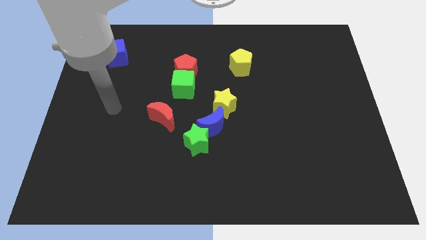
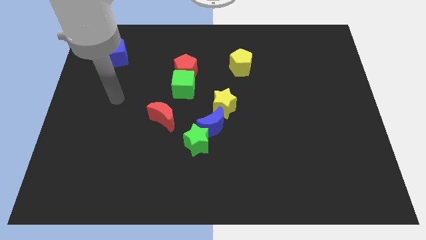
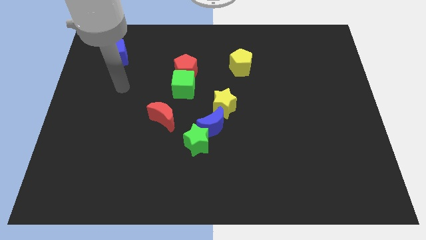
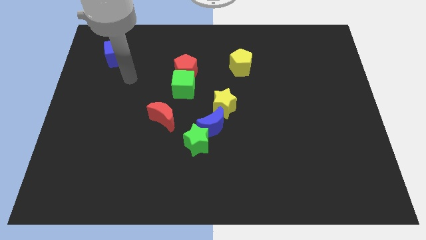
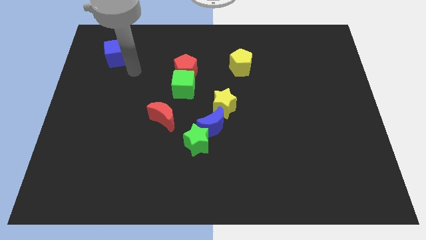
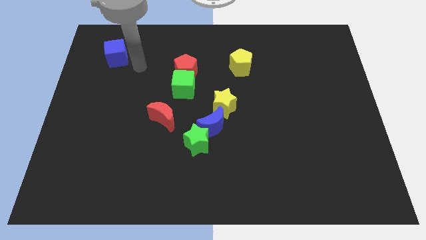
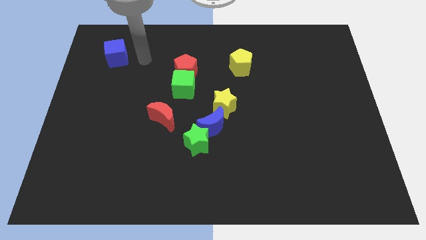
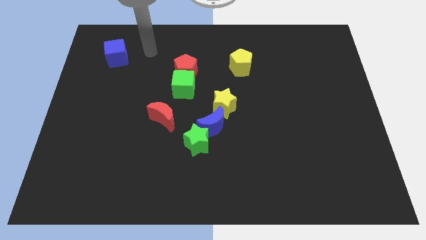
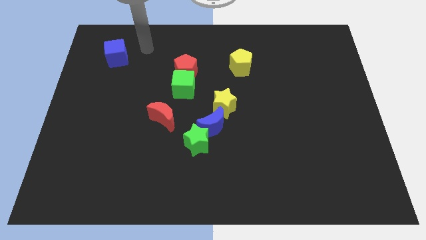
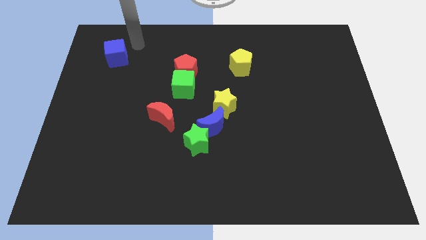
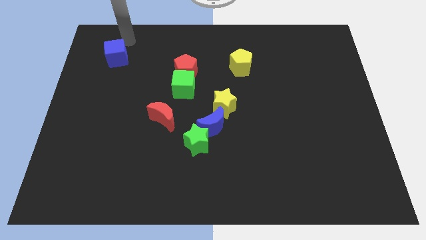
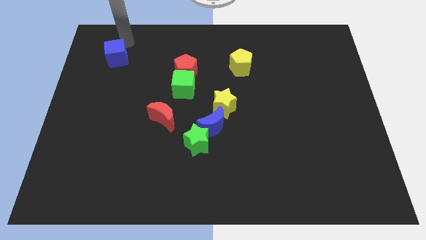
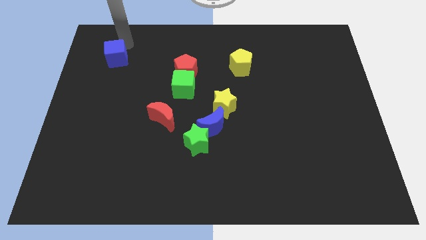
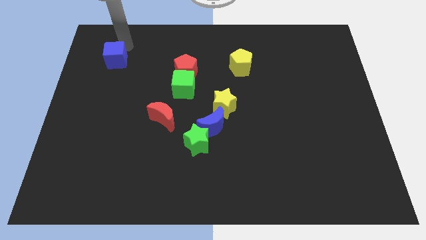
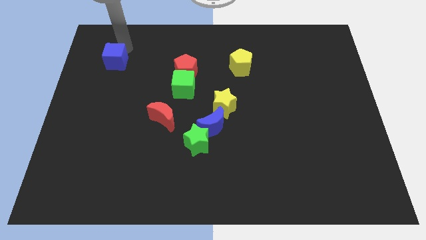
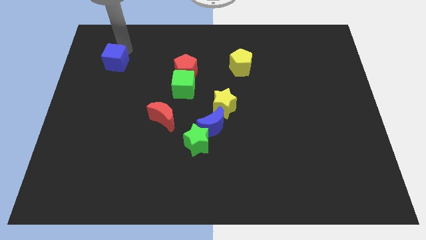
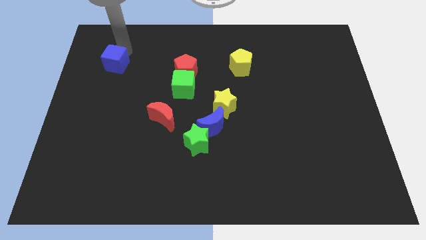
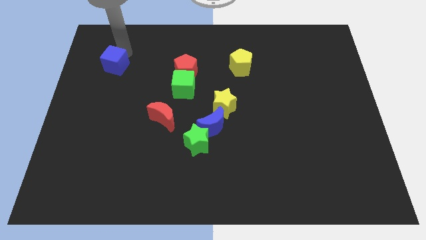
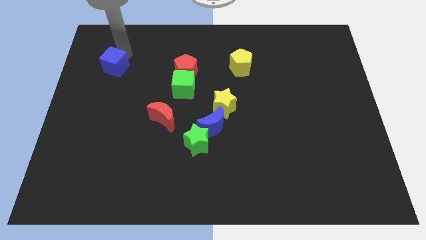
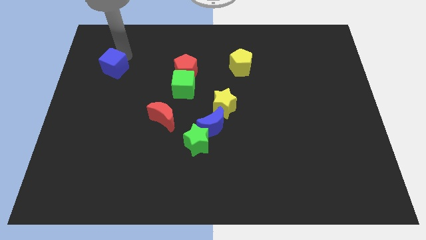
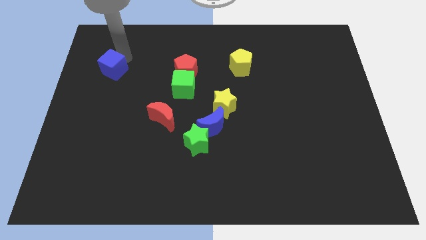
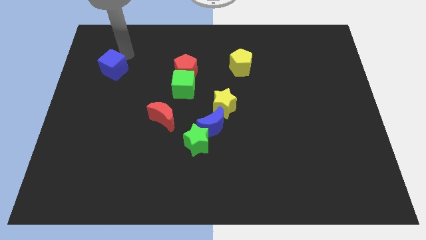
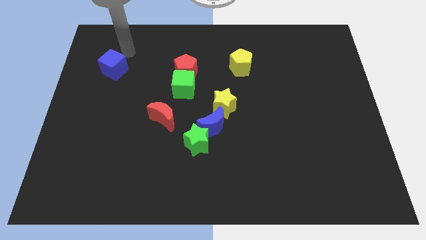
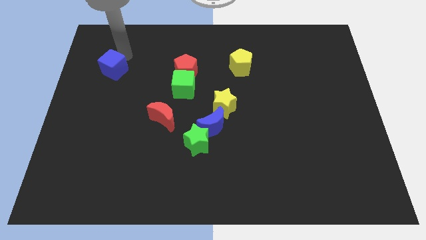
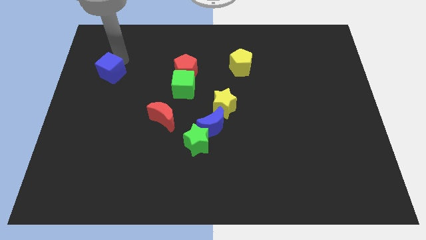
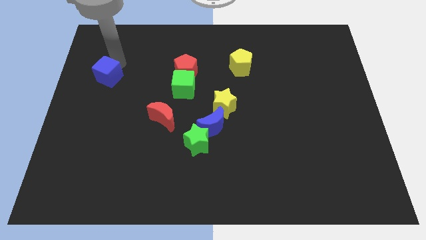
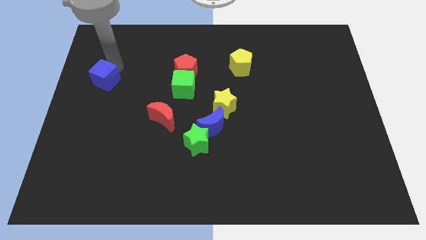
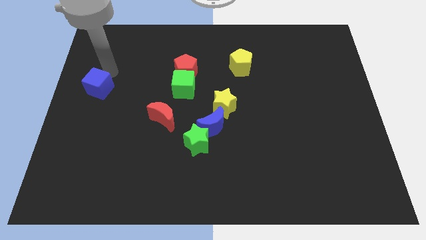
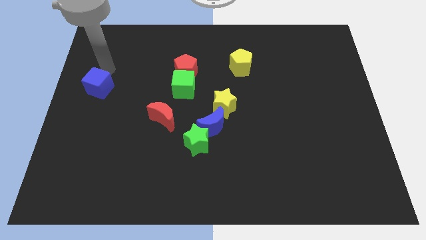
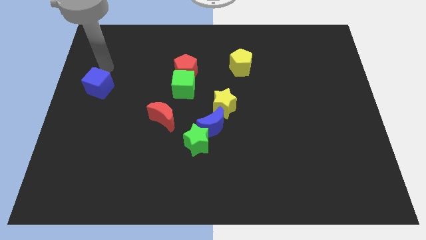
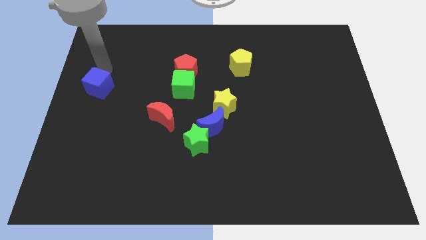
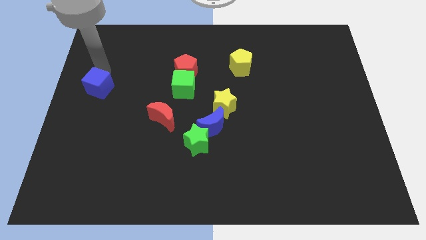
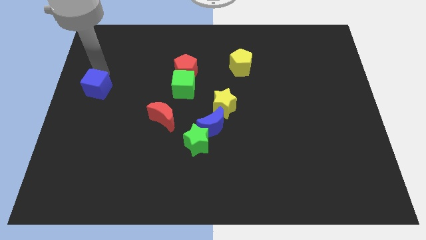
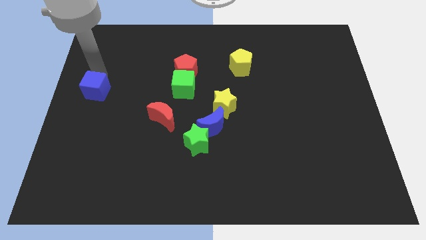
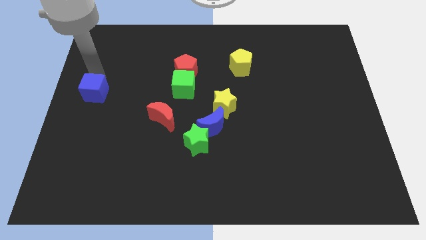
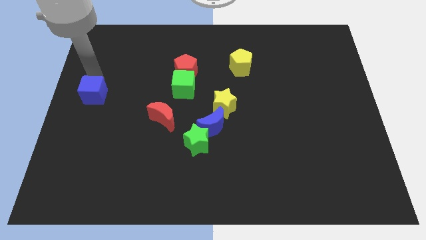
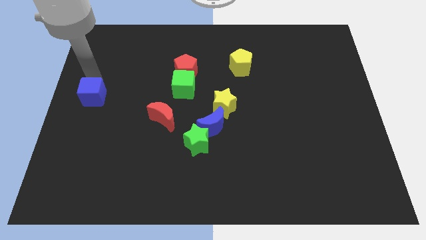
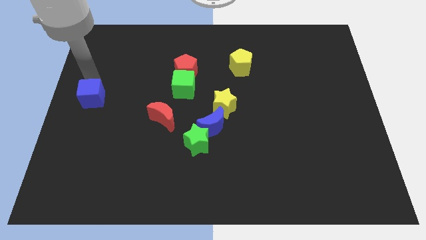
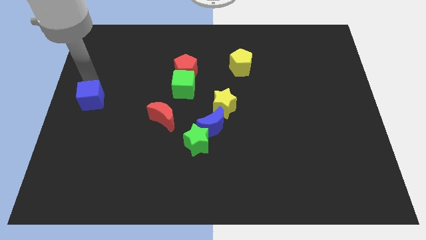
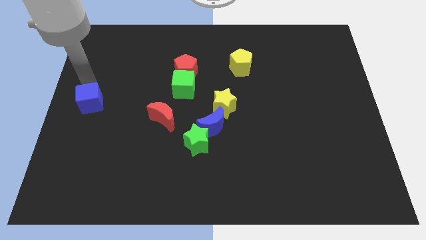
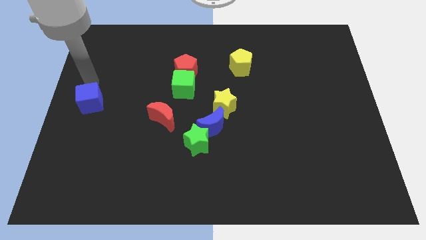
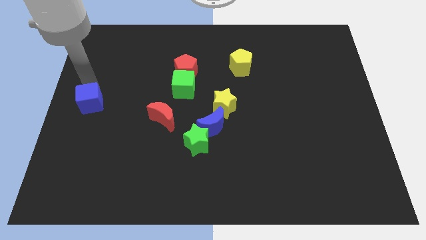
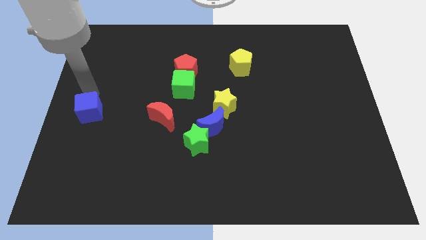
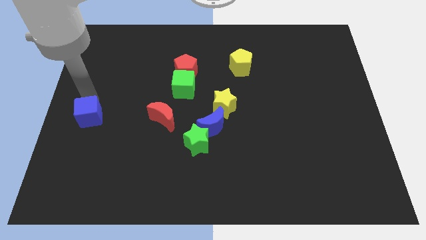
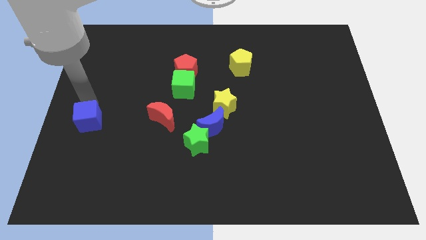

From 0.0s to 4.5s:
slide the blue cube downwards

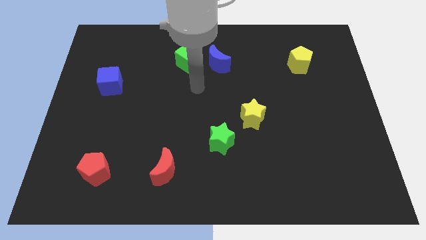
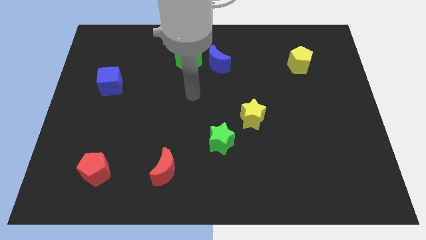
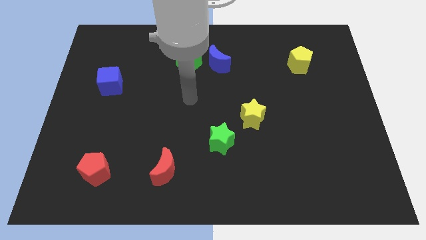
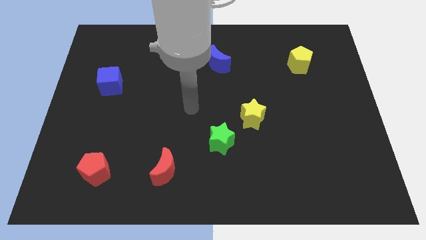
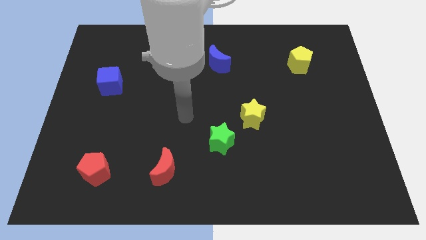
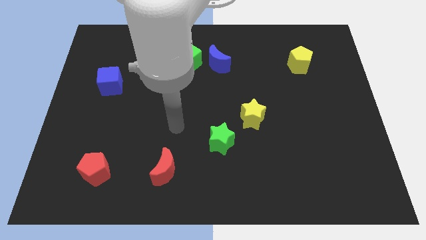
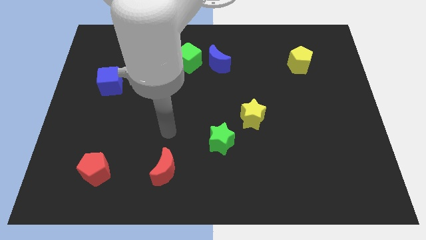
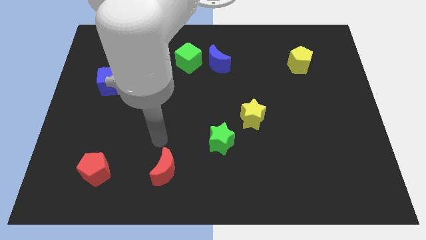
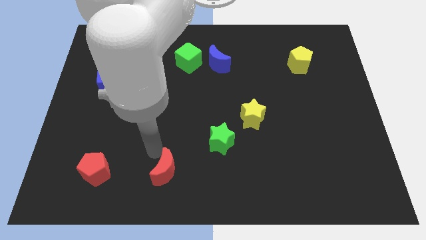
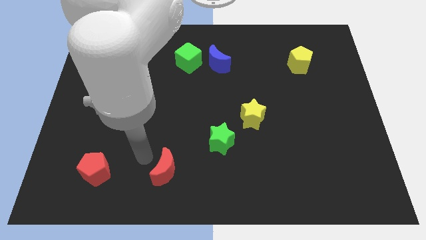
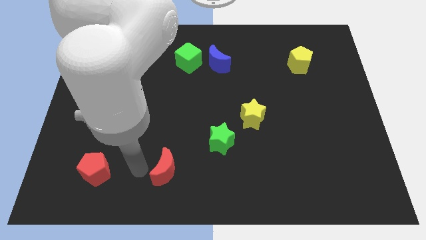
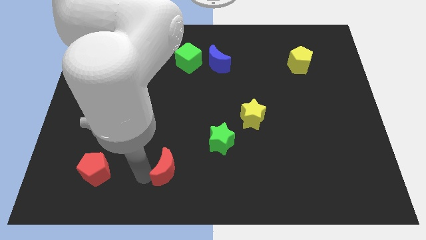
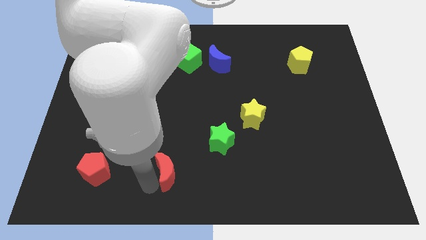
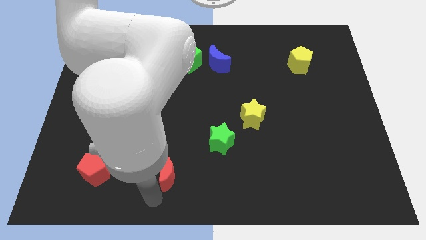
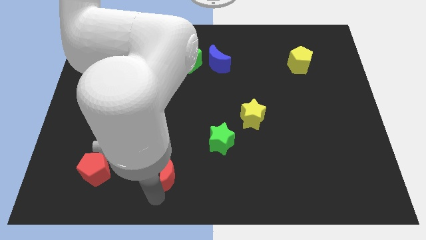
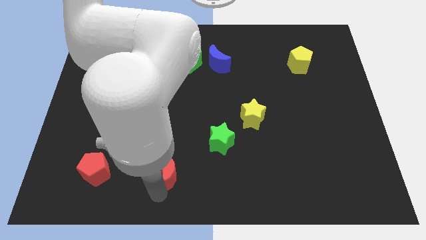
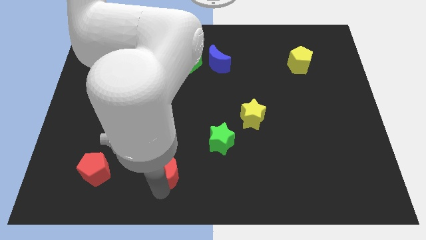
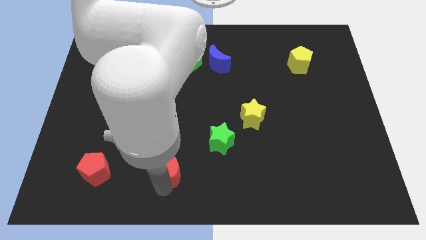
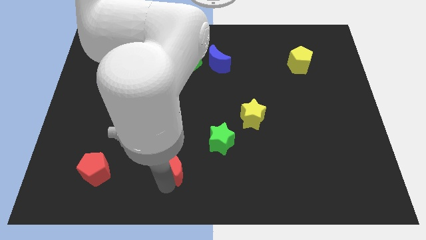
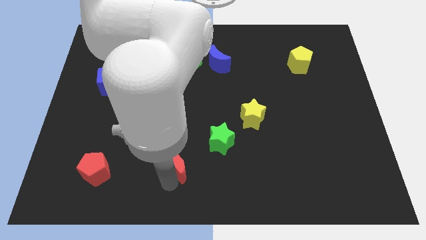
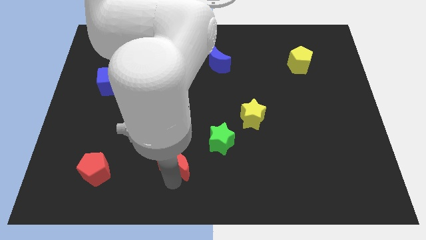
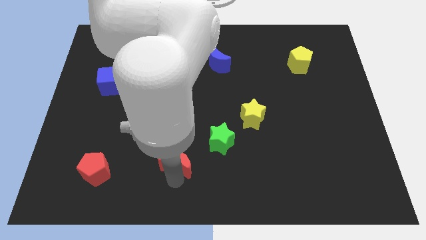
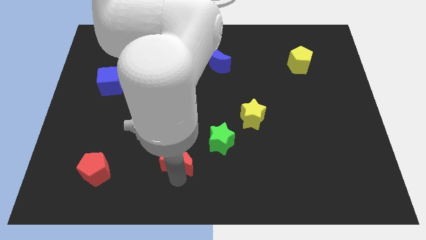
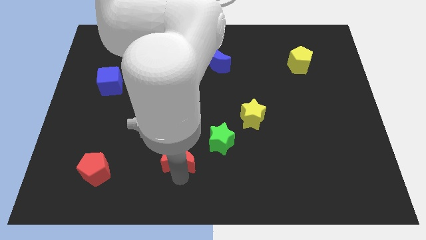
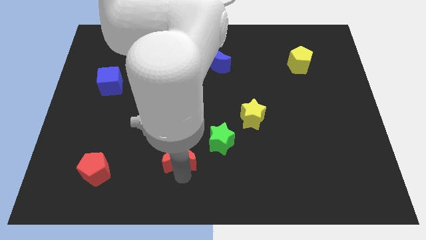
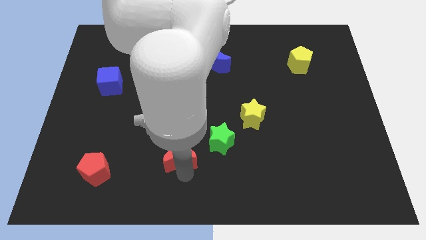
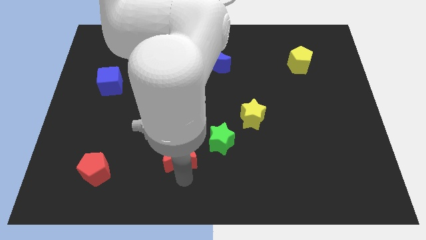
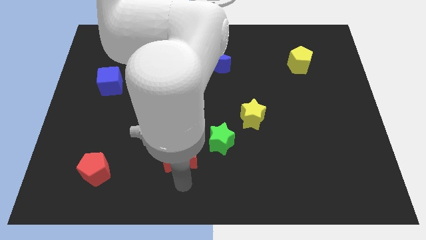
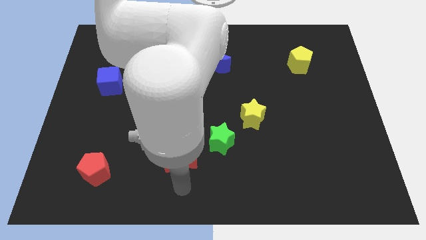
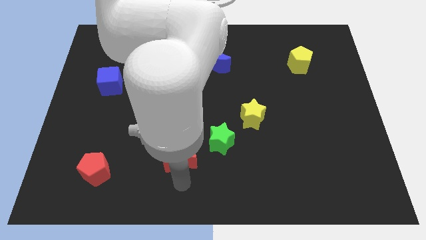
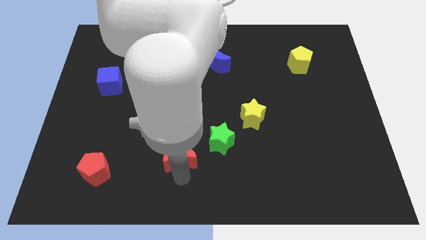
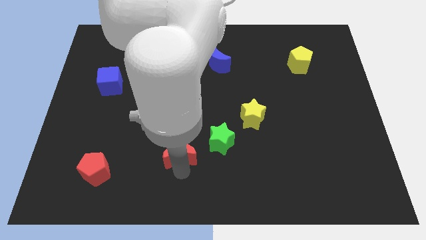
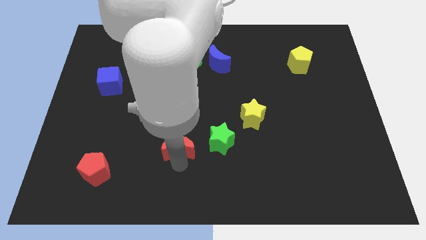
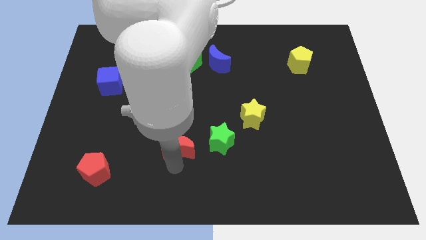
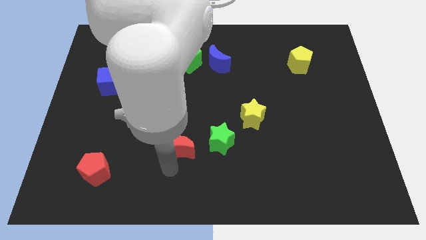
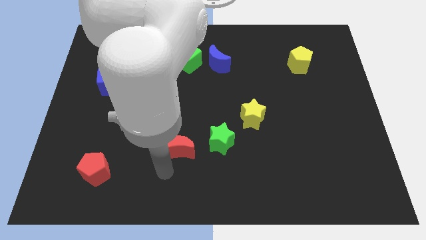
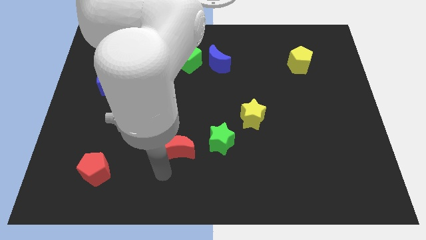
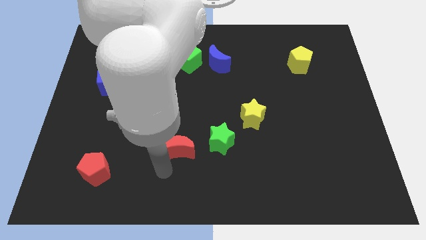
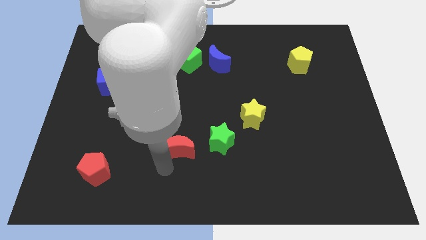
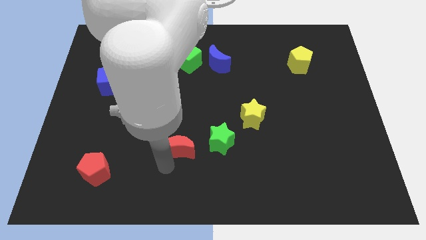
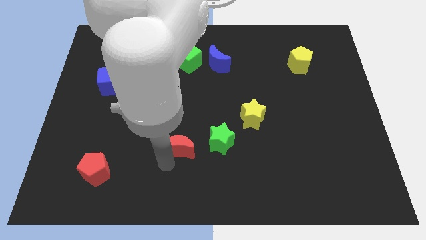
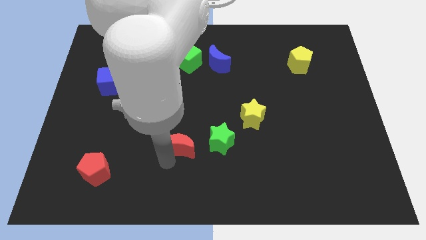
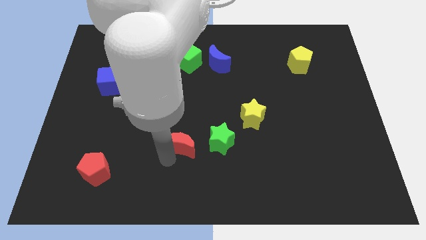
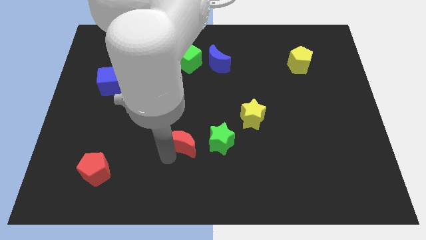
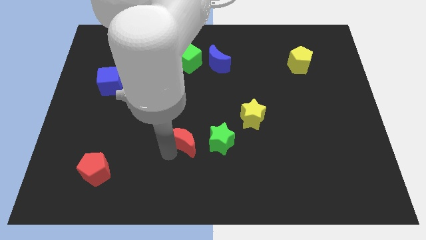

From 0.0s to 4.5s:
move the red moon a little diagonally up and to the right
